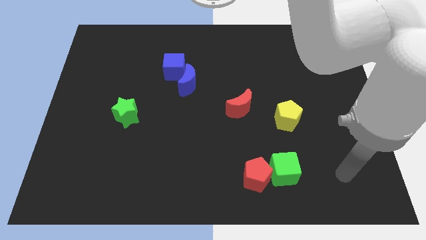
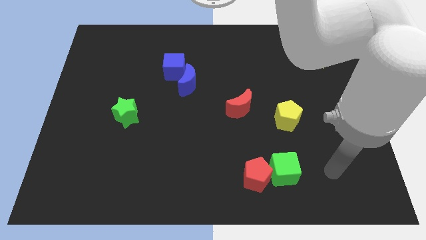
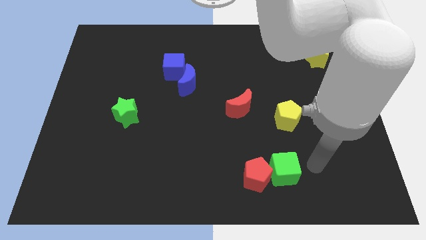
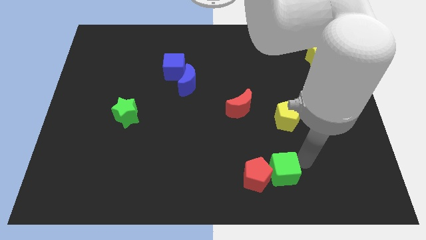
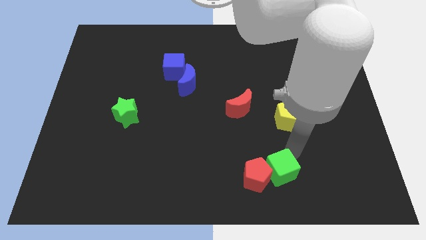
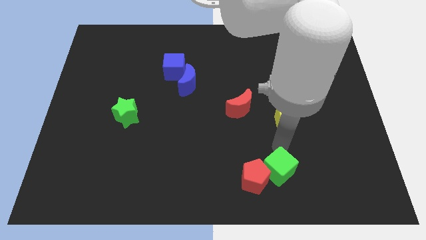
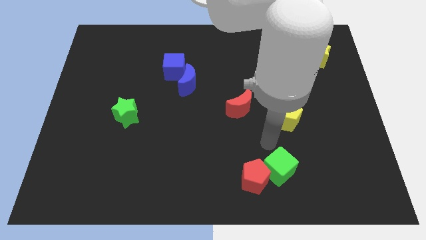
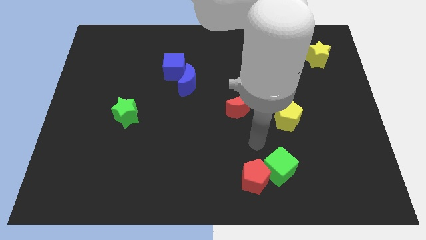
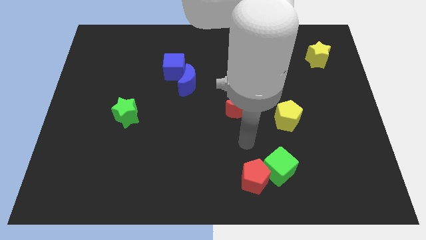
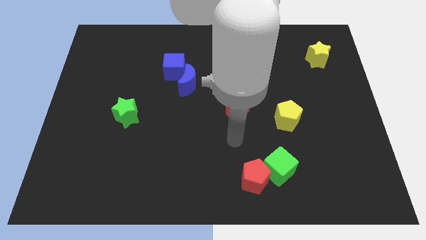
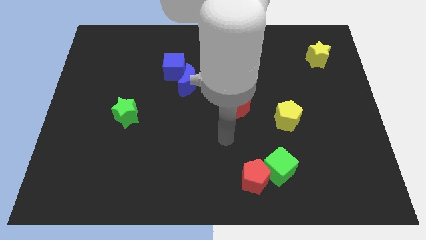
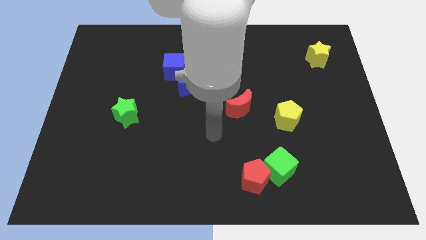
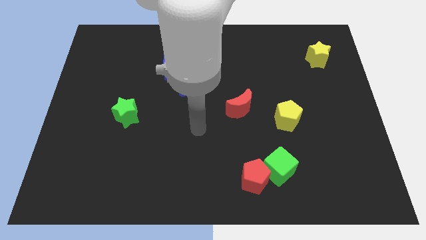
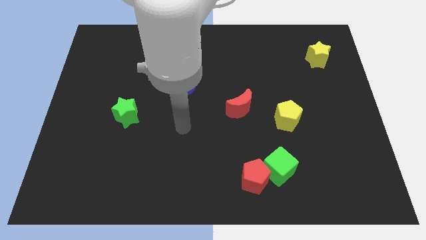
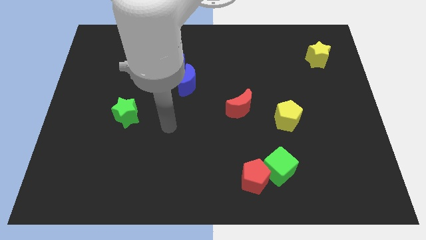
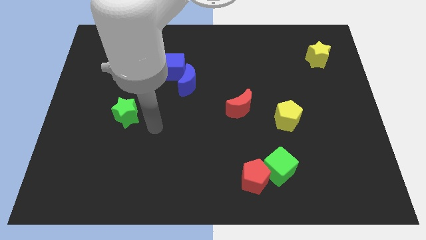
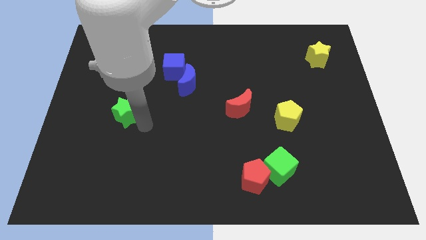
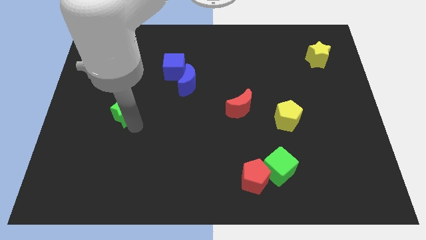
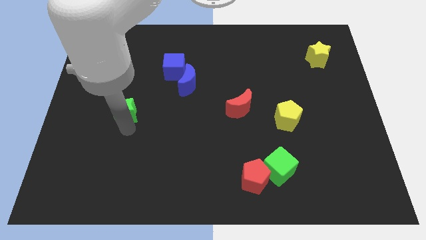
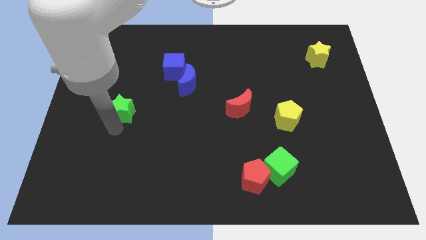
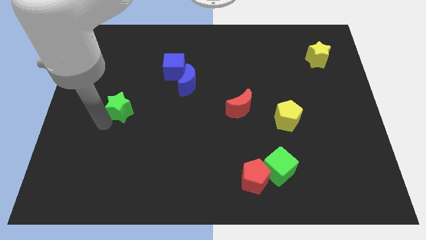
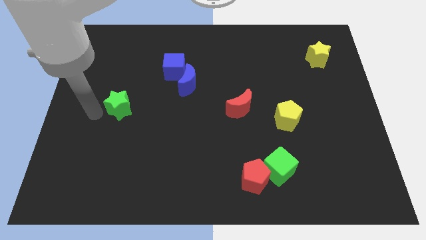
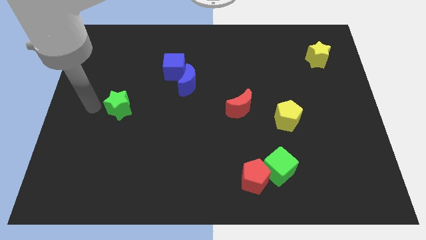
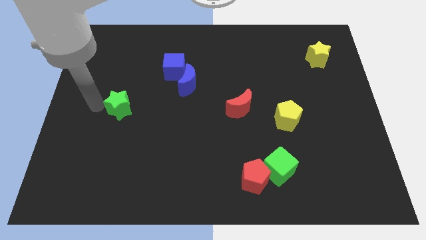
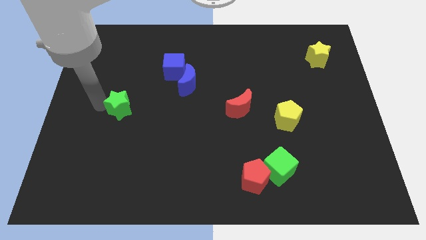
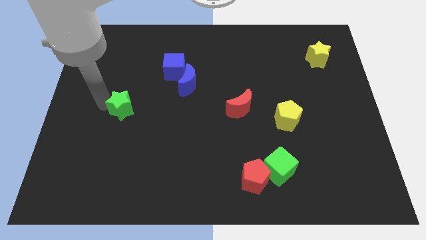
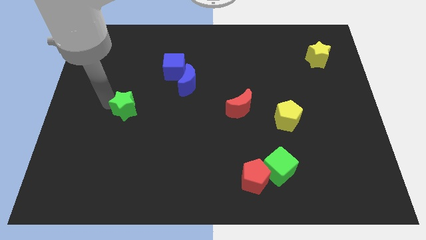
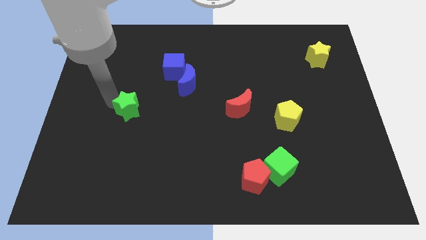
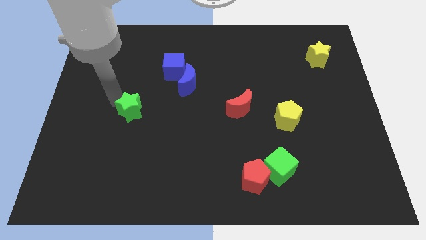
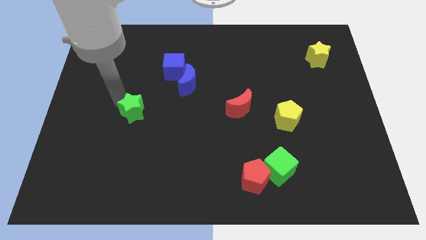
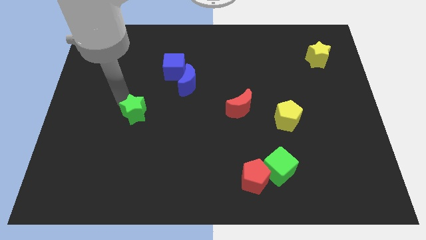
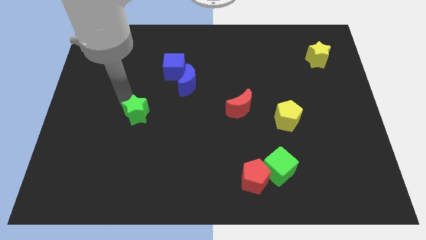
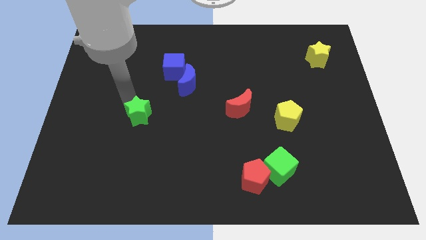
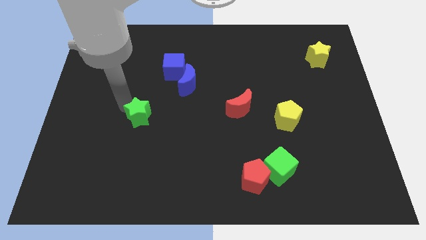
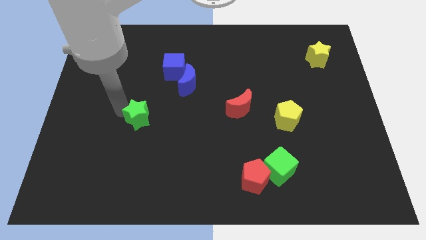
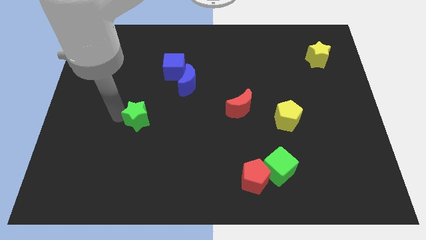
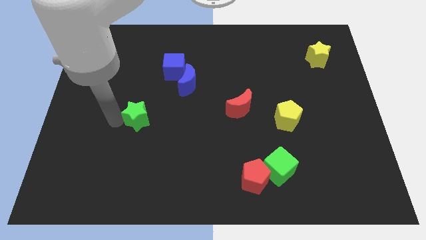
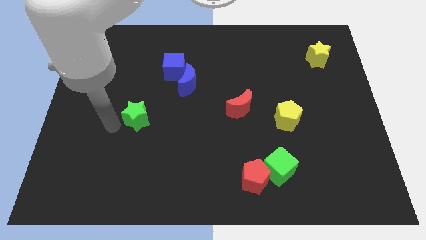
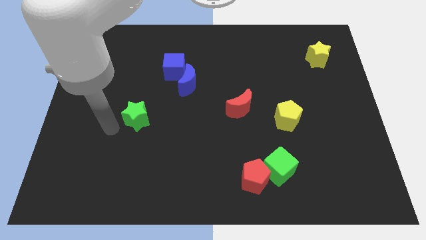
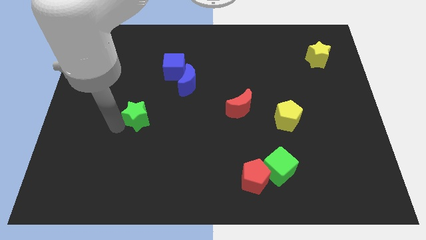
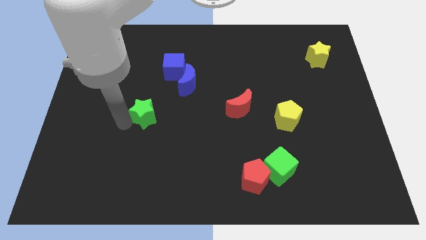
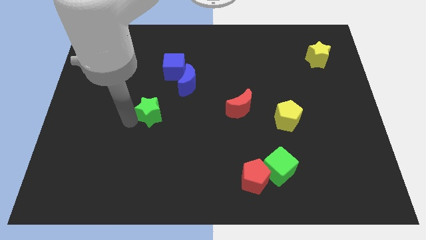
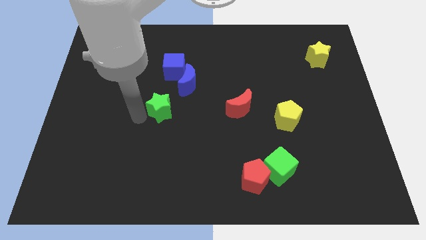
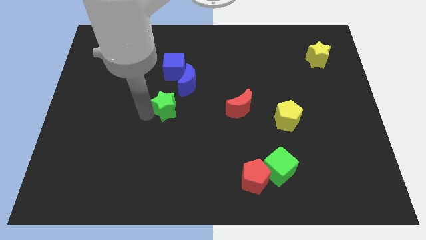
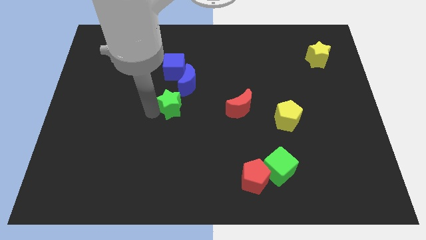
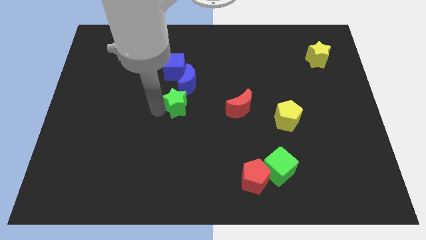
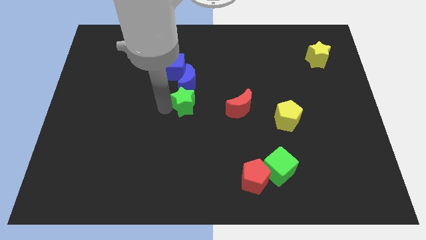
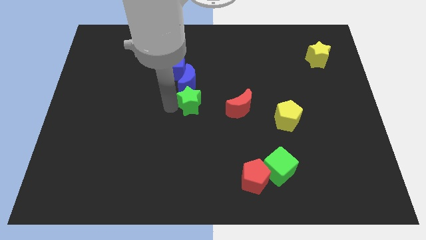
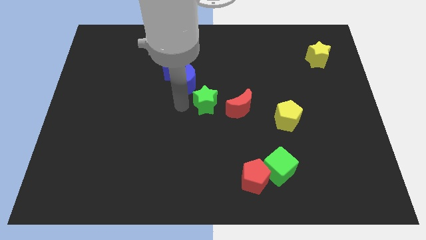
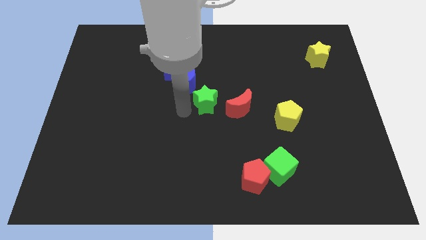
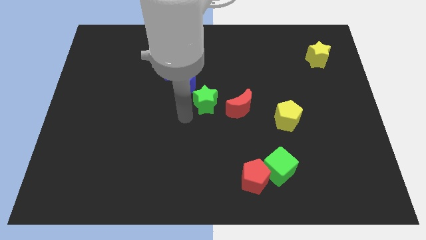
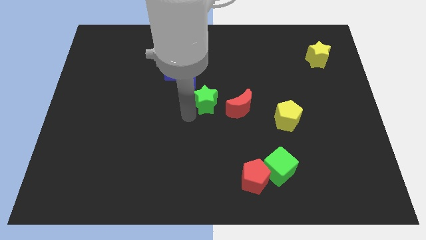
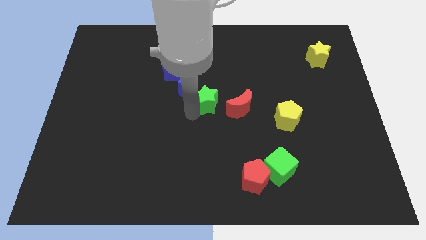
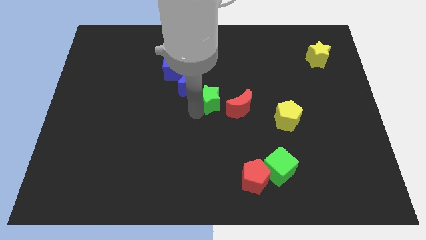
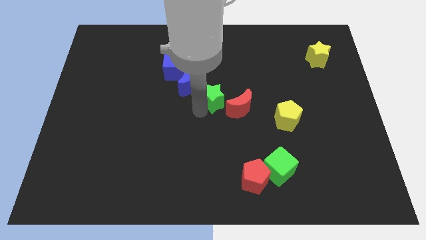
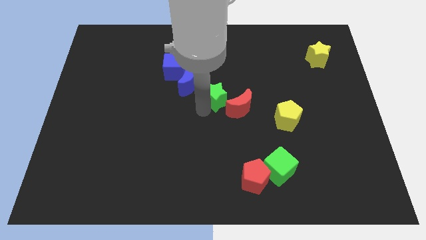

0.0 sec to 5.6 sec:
push the green star right of the blue moon

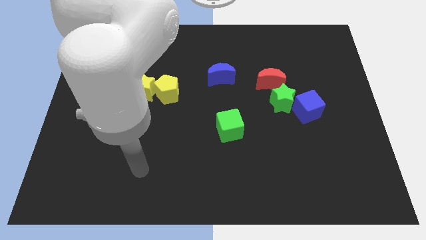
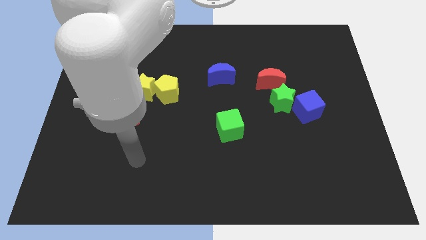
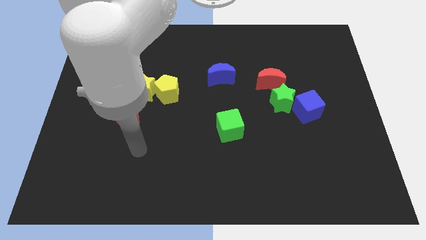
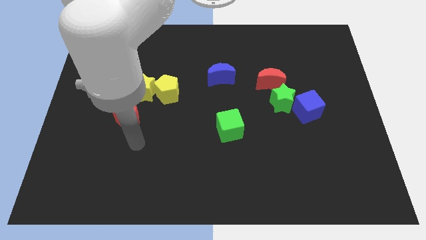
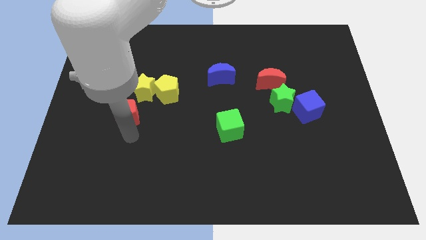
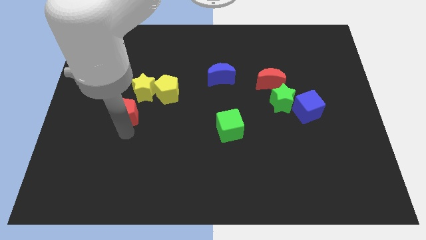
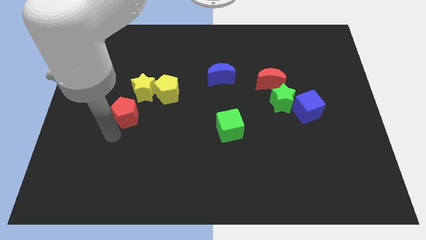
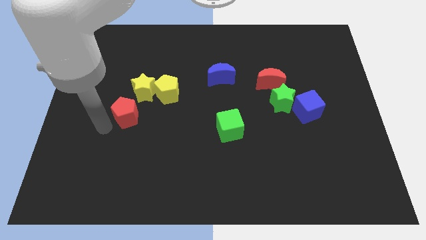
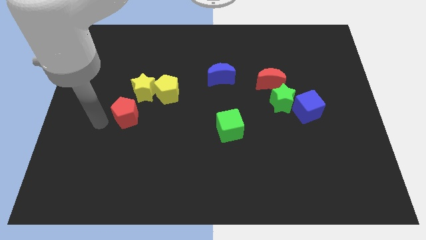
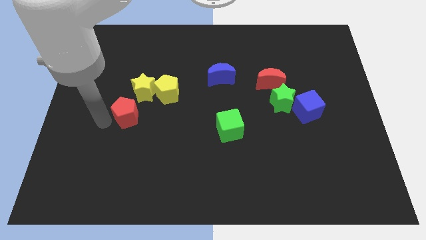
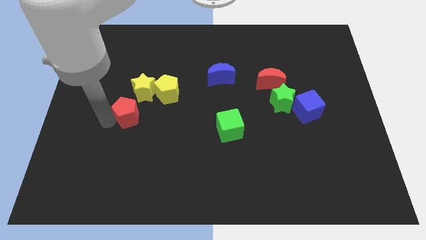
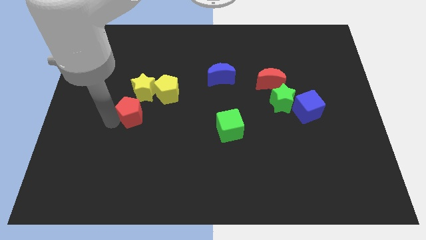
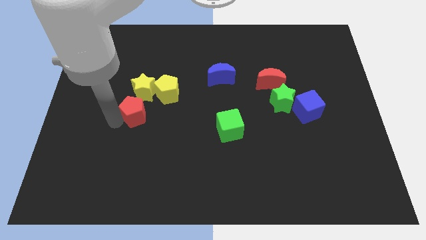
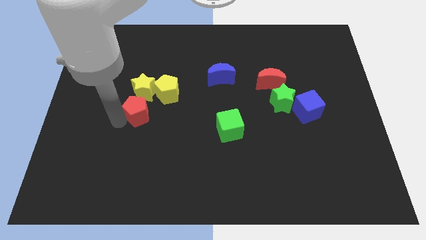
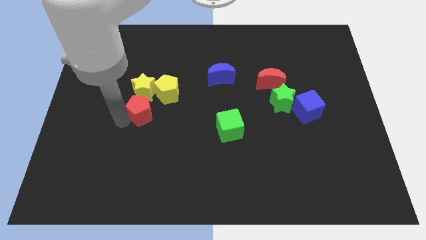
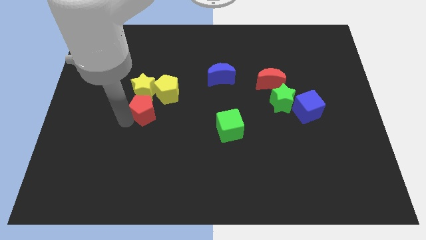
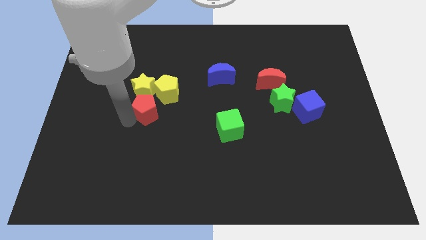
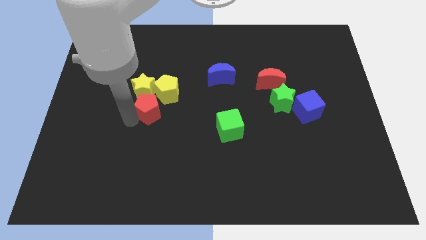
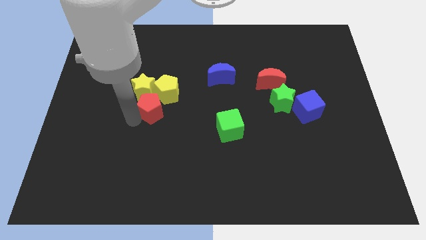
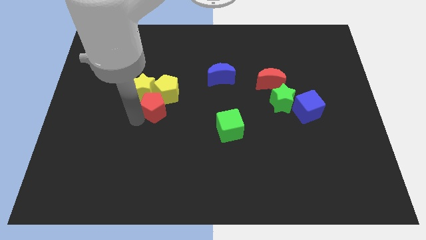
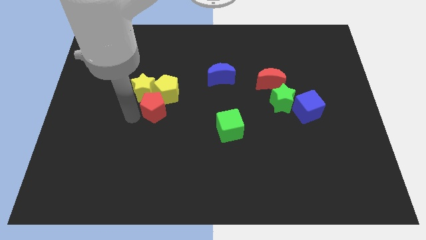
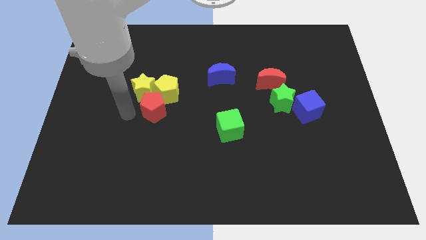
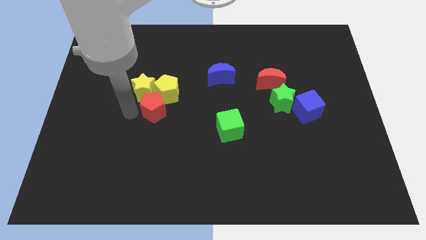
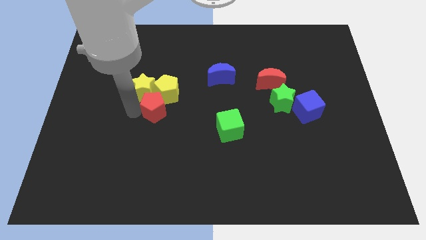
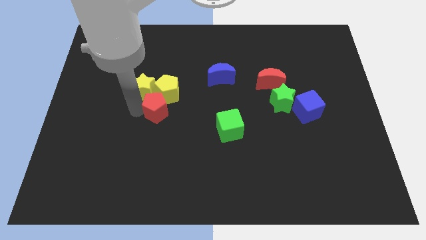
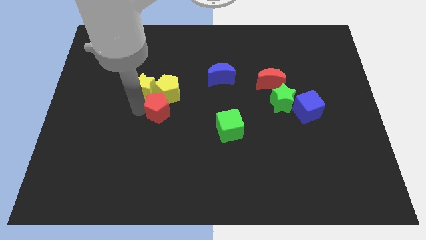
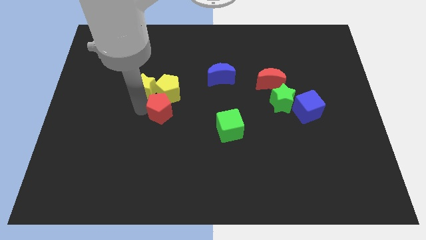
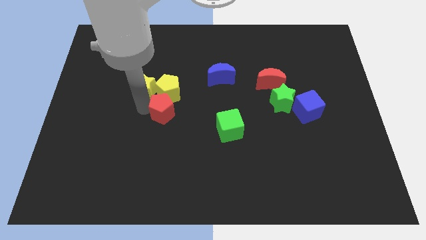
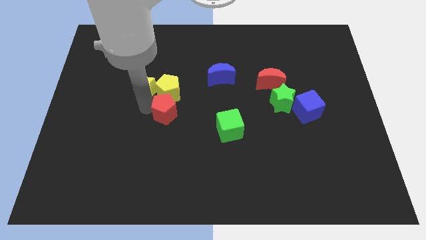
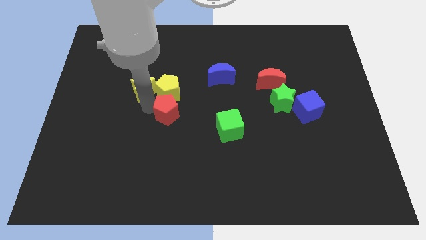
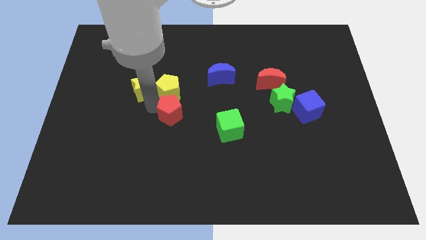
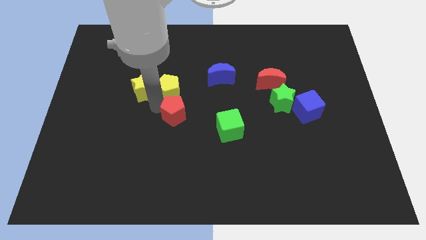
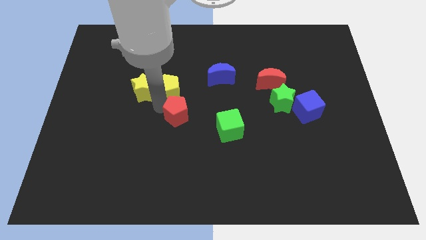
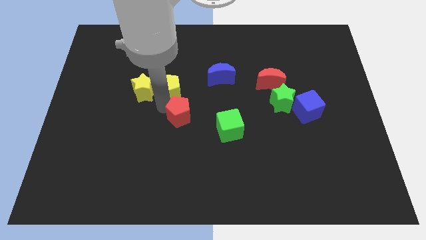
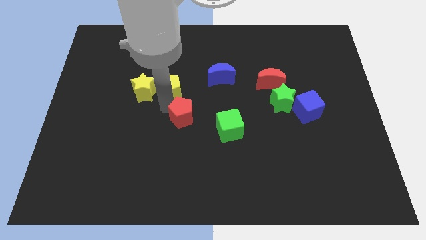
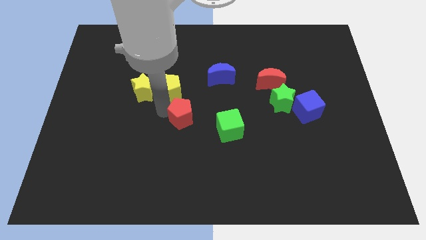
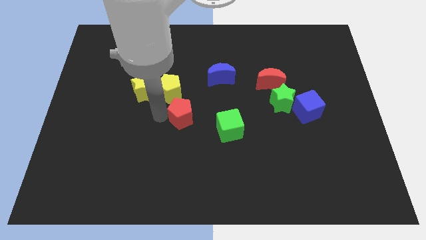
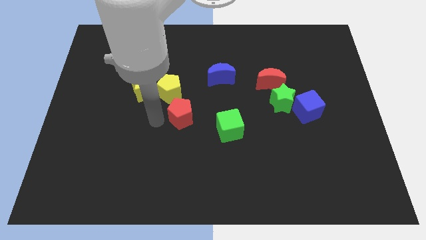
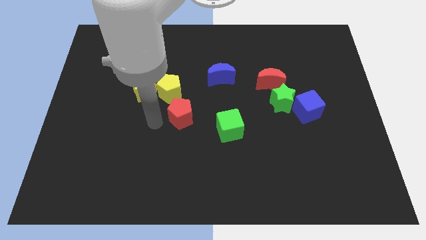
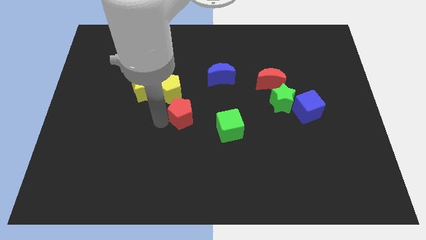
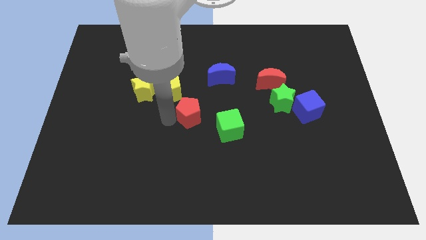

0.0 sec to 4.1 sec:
move the red pentagon to the top left of the green cube
